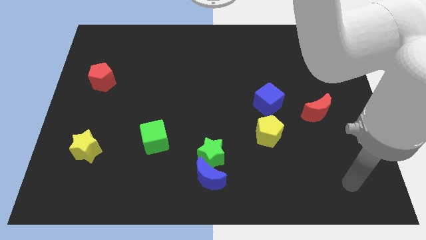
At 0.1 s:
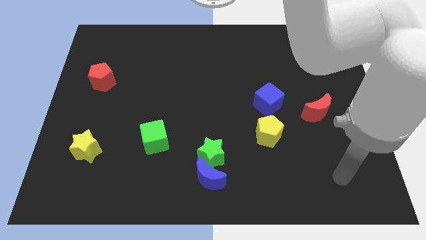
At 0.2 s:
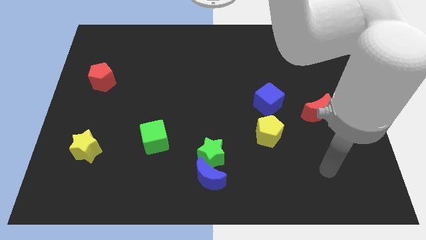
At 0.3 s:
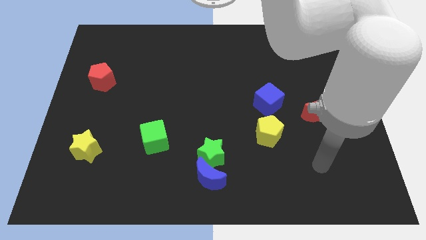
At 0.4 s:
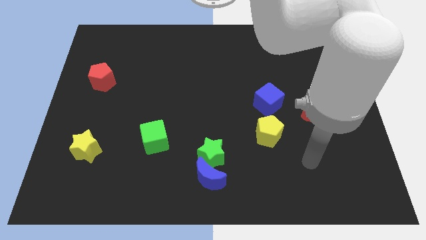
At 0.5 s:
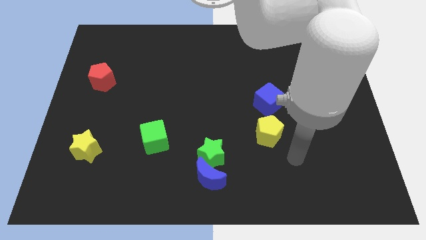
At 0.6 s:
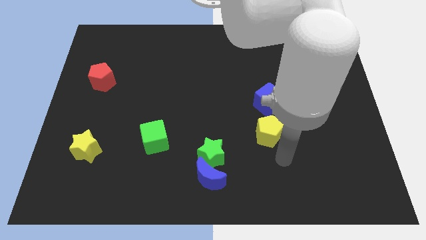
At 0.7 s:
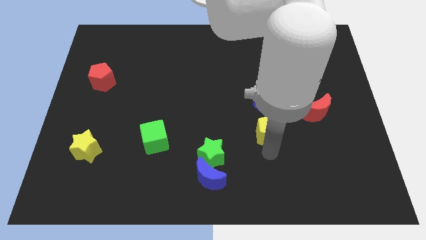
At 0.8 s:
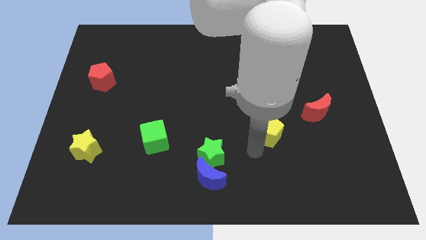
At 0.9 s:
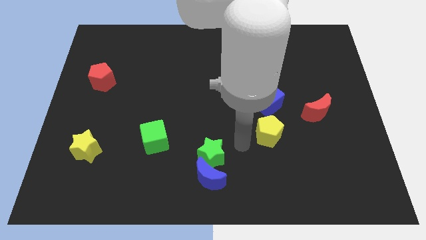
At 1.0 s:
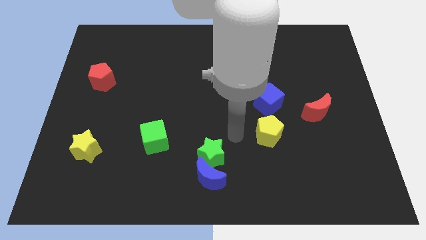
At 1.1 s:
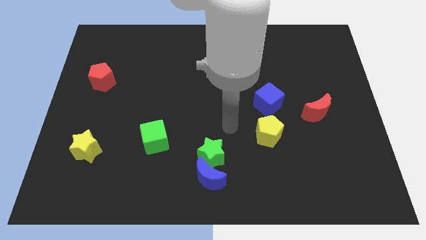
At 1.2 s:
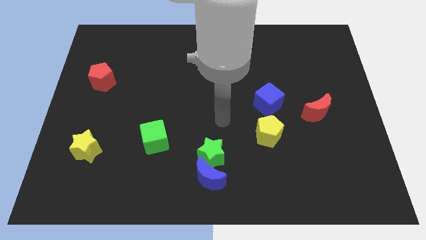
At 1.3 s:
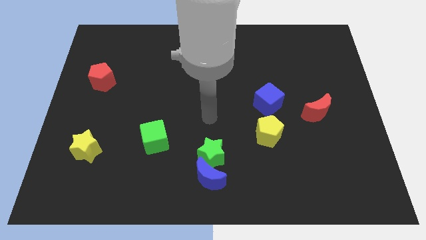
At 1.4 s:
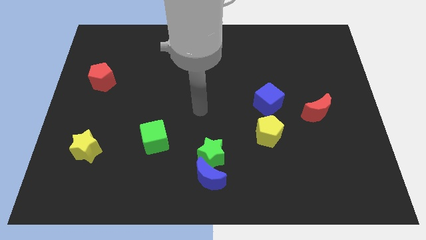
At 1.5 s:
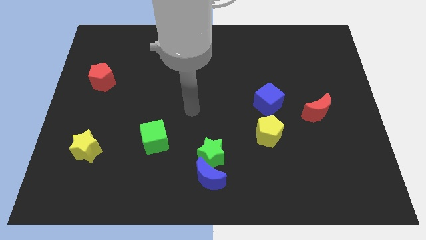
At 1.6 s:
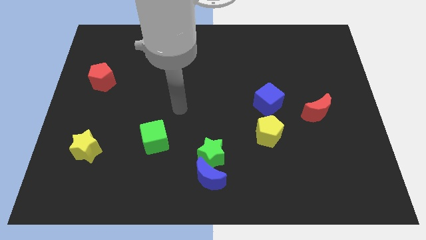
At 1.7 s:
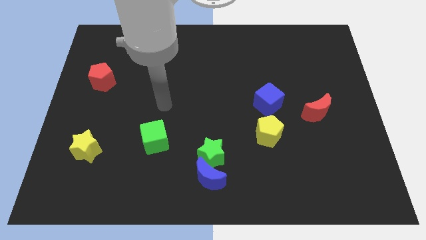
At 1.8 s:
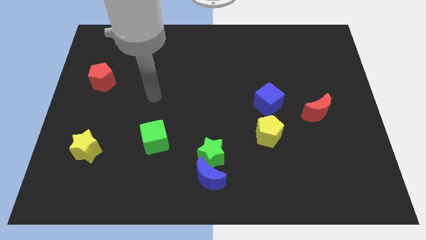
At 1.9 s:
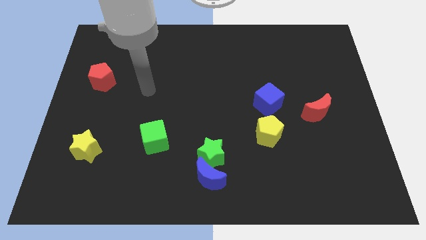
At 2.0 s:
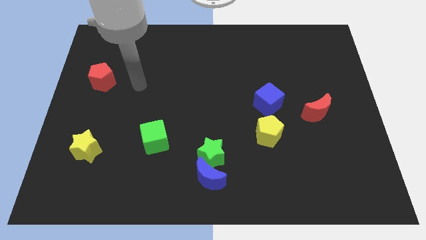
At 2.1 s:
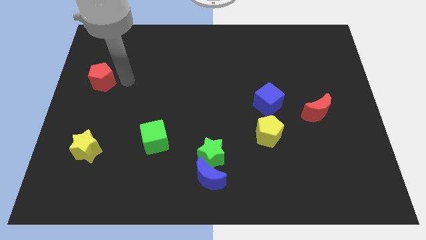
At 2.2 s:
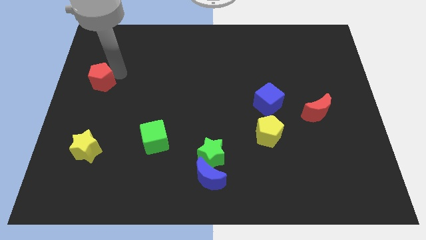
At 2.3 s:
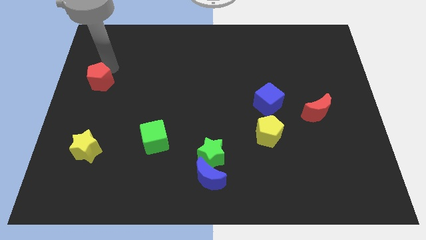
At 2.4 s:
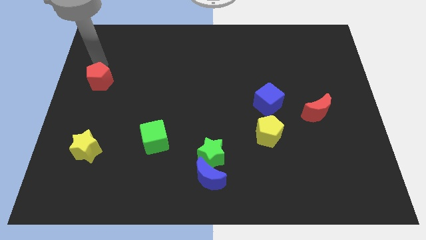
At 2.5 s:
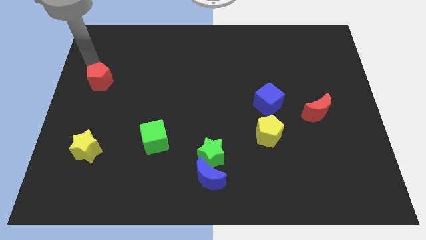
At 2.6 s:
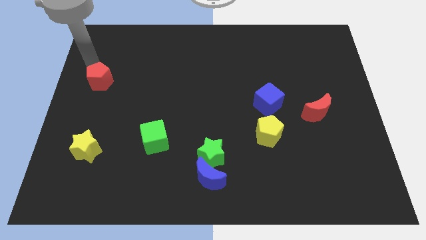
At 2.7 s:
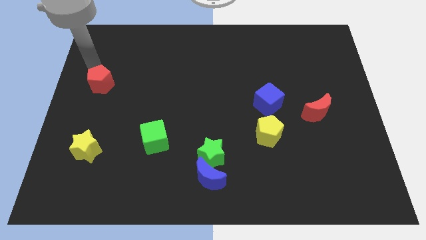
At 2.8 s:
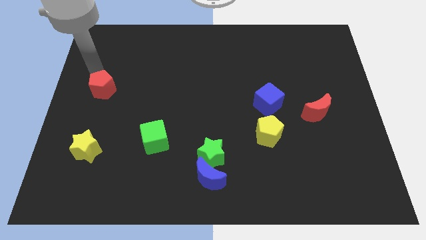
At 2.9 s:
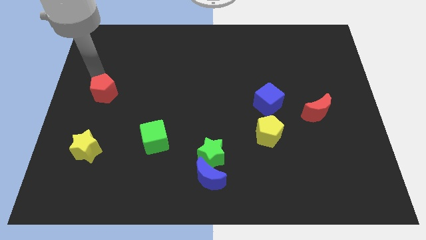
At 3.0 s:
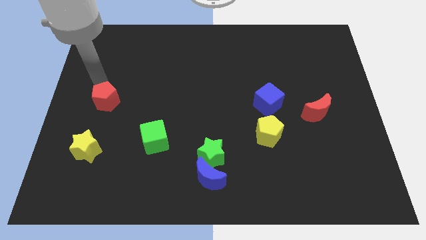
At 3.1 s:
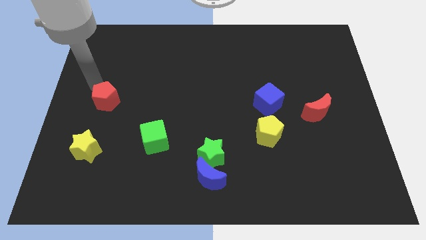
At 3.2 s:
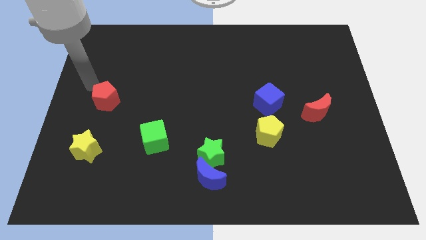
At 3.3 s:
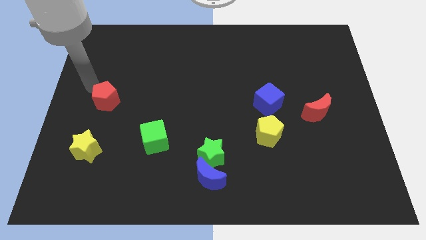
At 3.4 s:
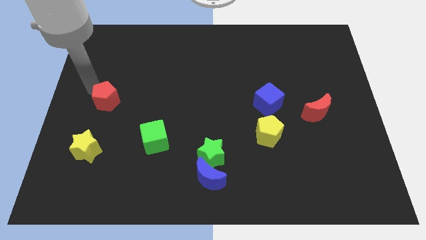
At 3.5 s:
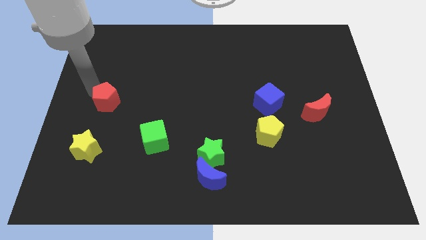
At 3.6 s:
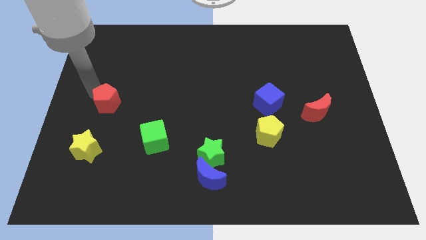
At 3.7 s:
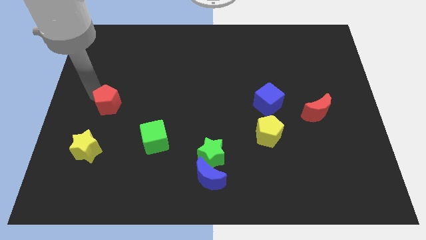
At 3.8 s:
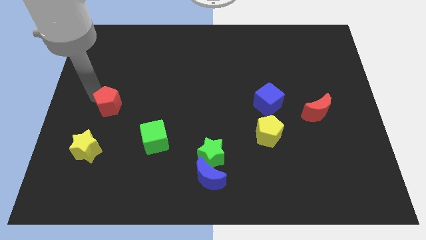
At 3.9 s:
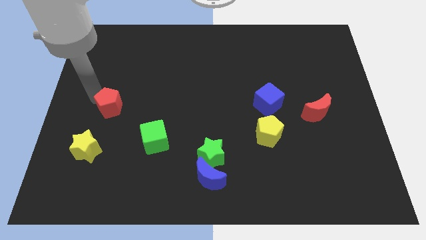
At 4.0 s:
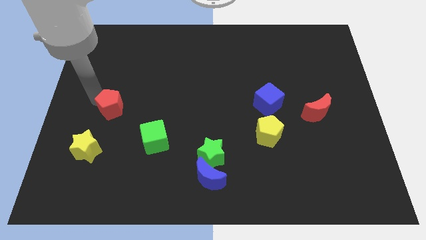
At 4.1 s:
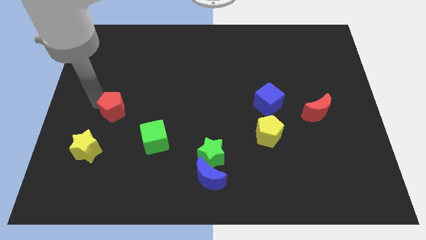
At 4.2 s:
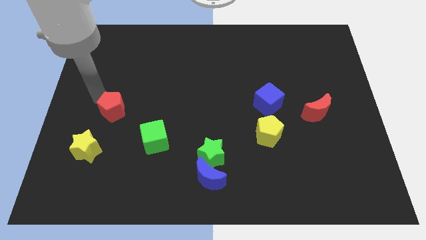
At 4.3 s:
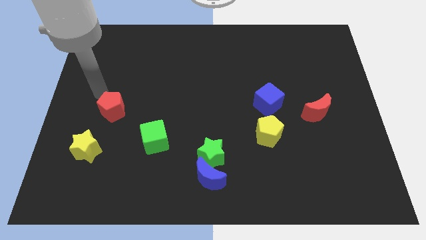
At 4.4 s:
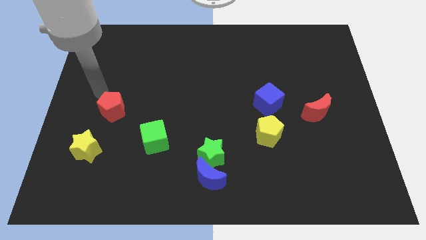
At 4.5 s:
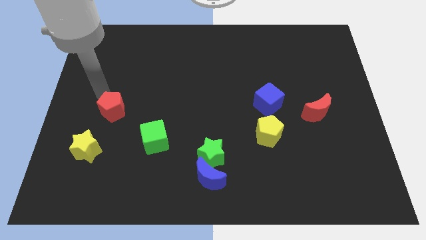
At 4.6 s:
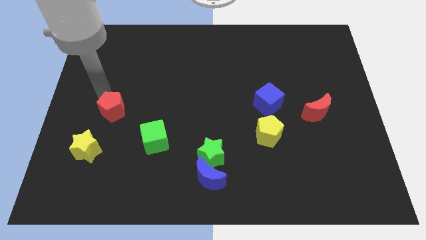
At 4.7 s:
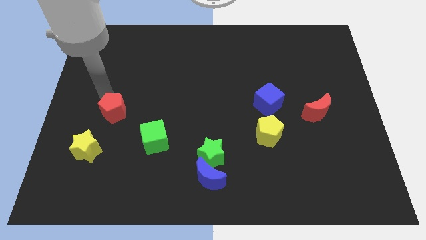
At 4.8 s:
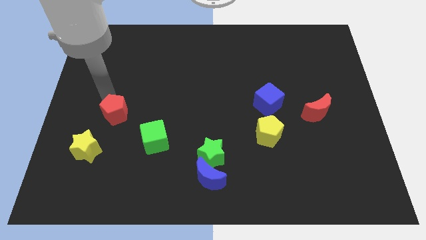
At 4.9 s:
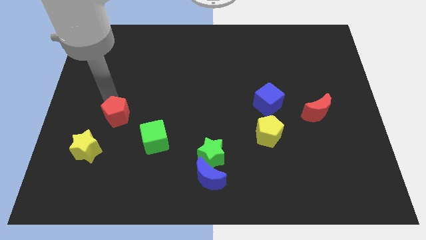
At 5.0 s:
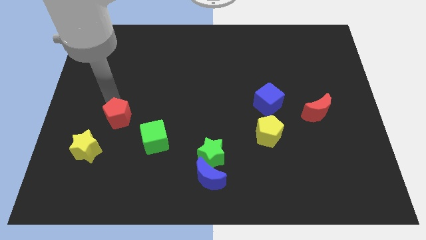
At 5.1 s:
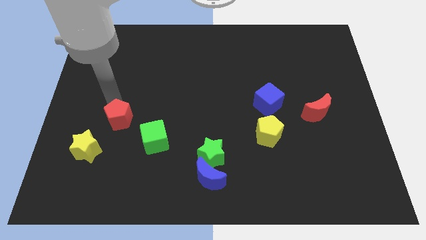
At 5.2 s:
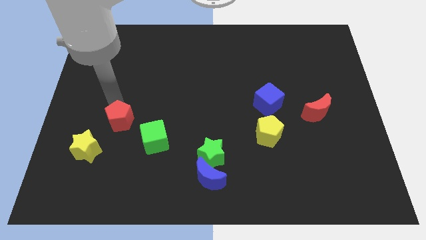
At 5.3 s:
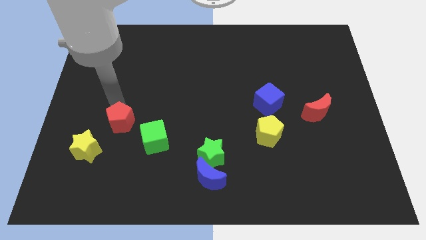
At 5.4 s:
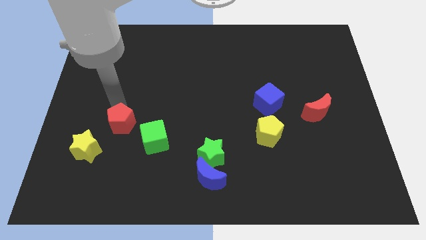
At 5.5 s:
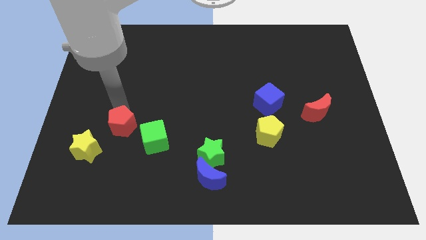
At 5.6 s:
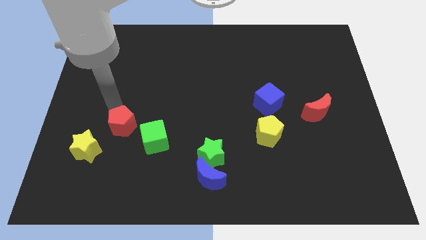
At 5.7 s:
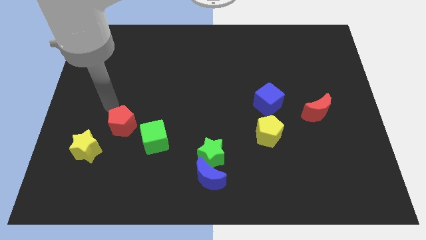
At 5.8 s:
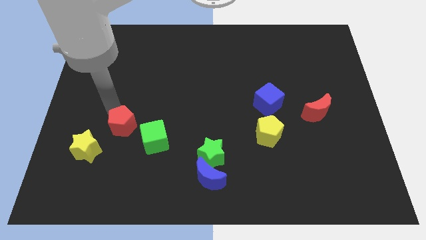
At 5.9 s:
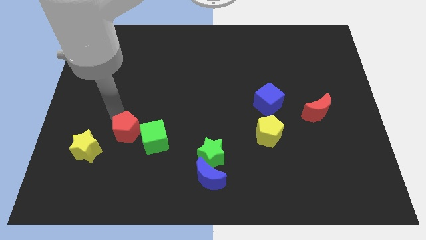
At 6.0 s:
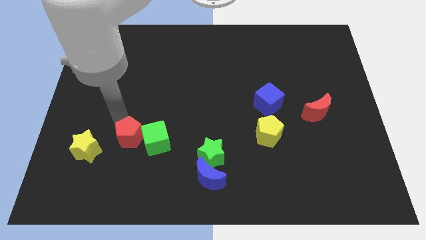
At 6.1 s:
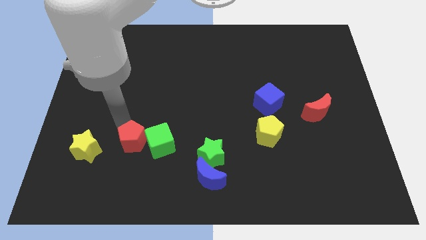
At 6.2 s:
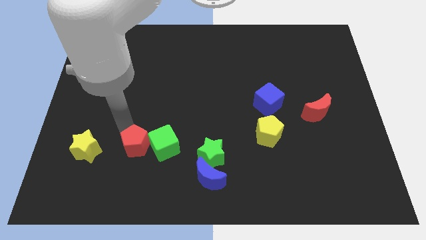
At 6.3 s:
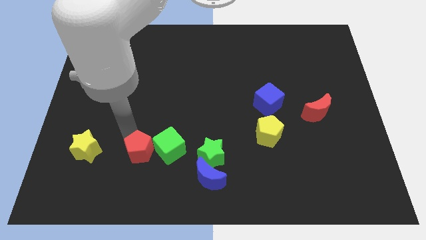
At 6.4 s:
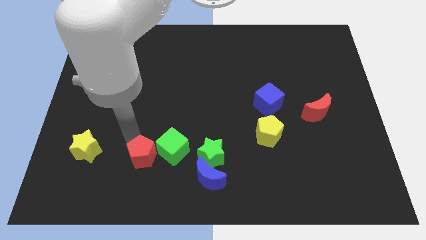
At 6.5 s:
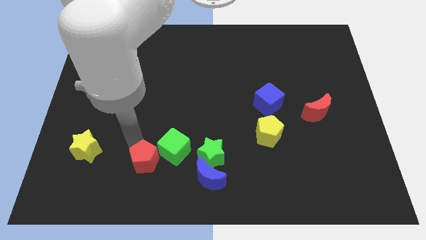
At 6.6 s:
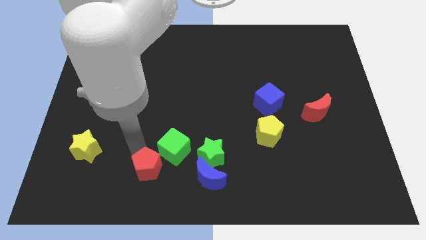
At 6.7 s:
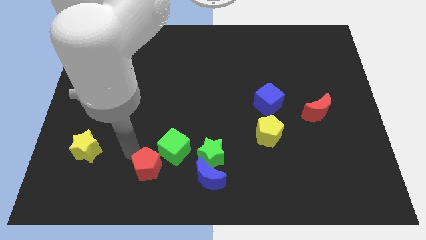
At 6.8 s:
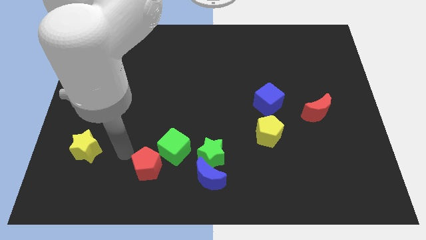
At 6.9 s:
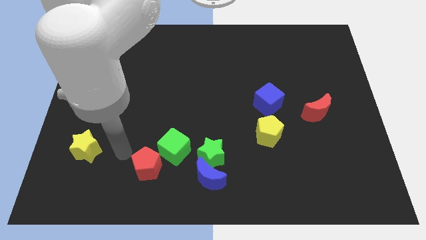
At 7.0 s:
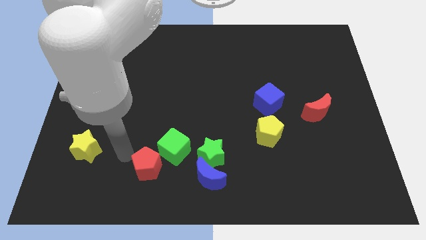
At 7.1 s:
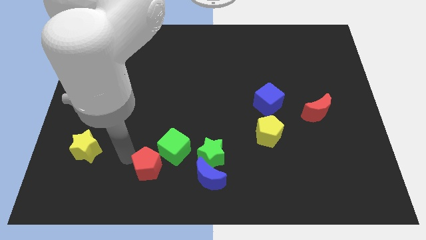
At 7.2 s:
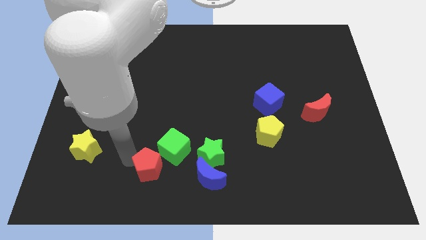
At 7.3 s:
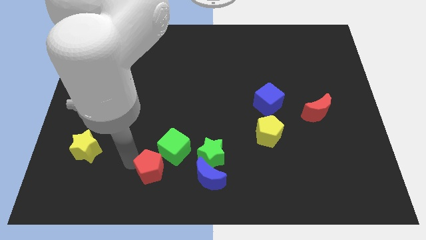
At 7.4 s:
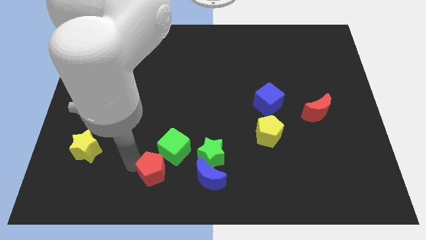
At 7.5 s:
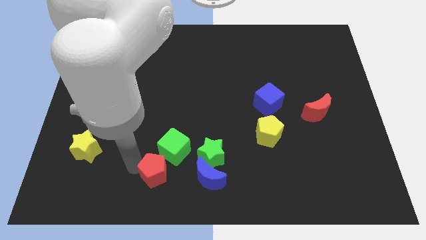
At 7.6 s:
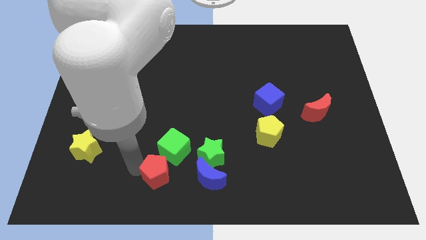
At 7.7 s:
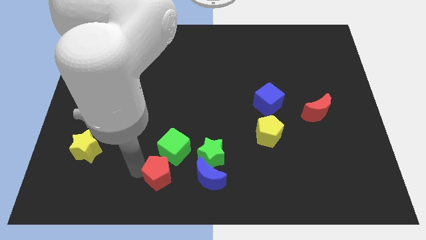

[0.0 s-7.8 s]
slide the red pentagon to the bottom side
